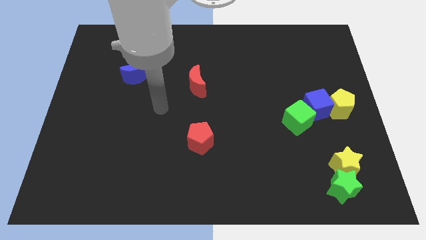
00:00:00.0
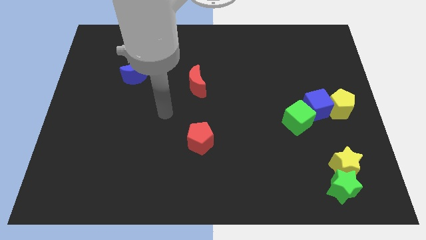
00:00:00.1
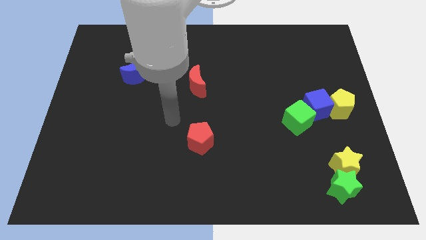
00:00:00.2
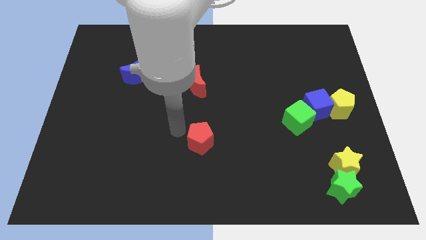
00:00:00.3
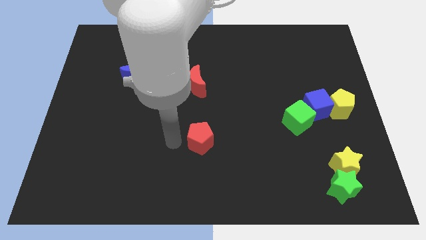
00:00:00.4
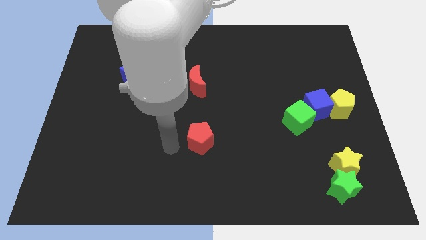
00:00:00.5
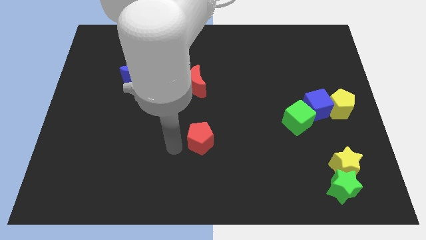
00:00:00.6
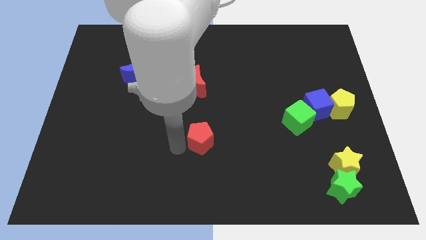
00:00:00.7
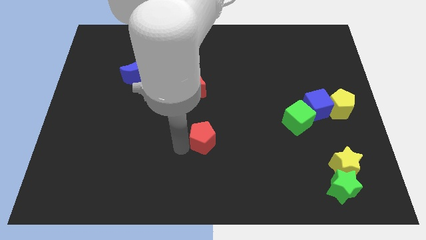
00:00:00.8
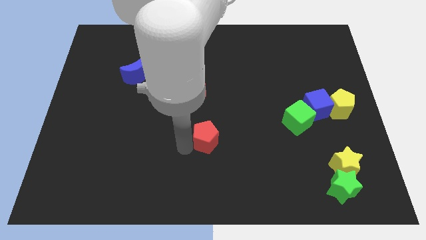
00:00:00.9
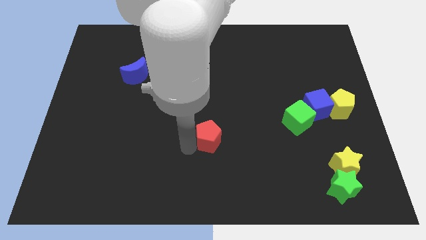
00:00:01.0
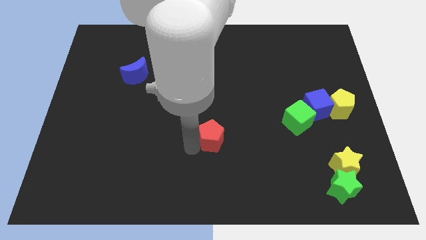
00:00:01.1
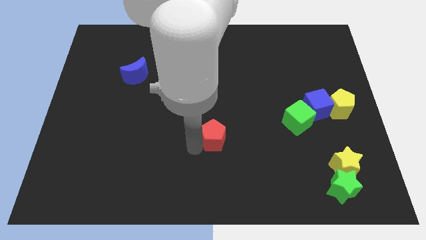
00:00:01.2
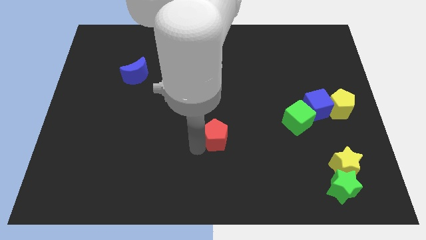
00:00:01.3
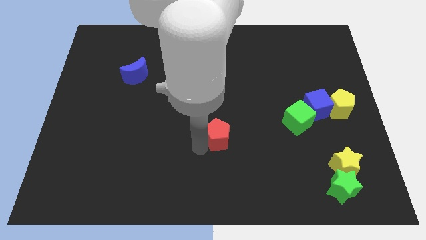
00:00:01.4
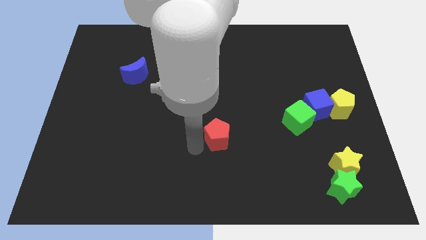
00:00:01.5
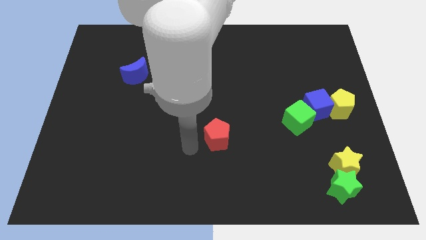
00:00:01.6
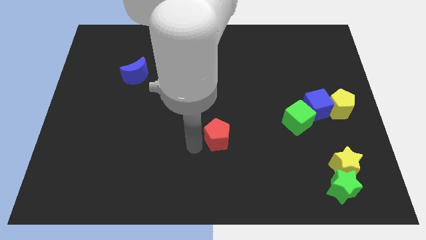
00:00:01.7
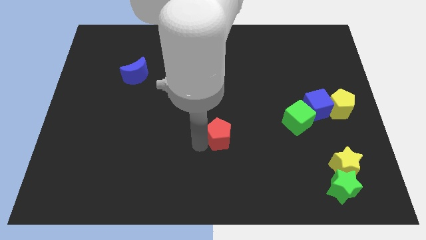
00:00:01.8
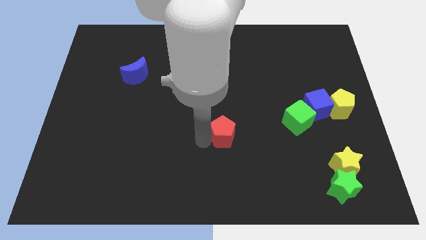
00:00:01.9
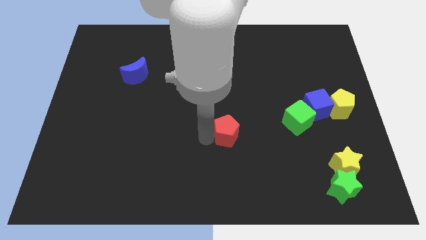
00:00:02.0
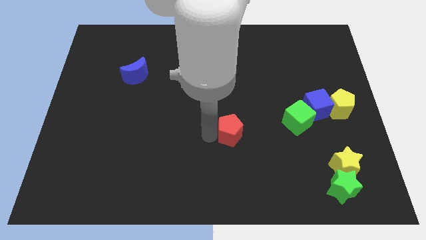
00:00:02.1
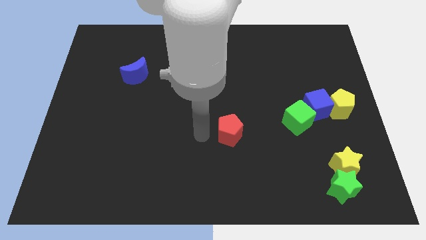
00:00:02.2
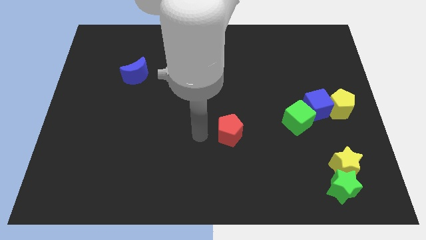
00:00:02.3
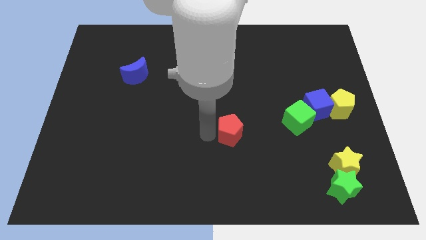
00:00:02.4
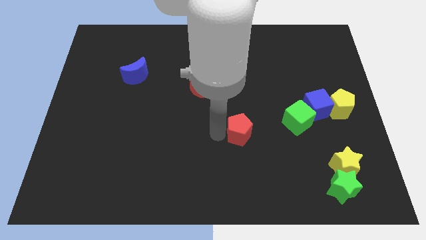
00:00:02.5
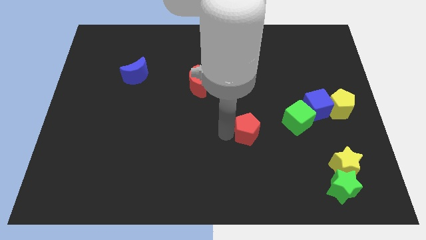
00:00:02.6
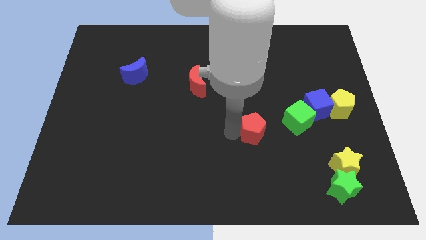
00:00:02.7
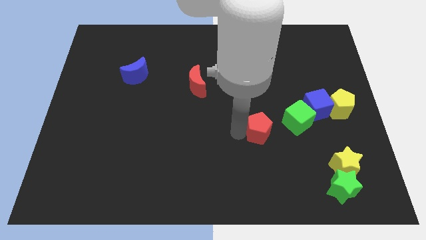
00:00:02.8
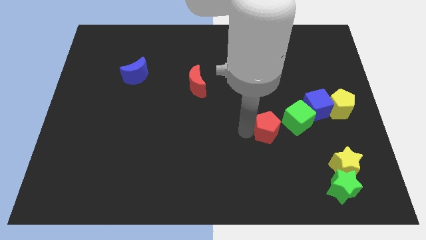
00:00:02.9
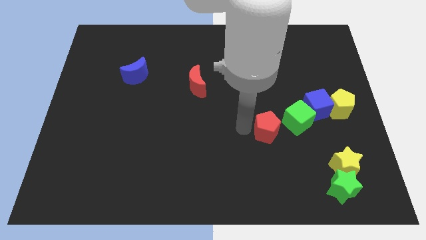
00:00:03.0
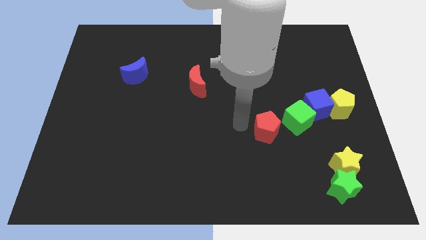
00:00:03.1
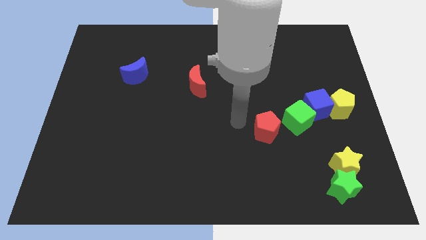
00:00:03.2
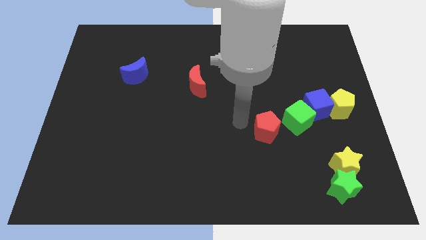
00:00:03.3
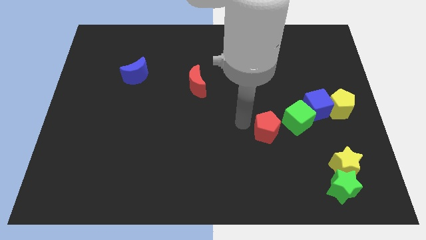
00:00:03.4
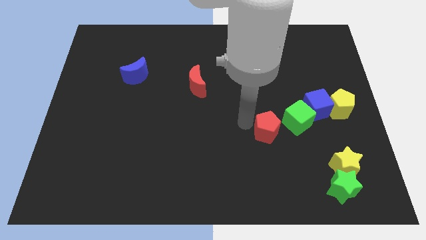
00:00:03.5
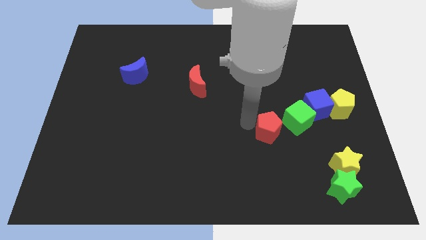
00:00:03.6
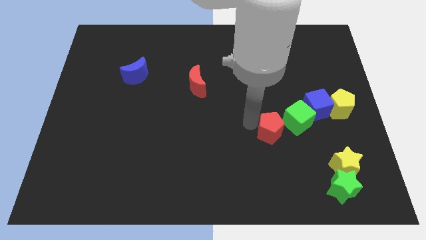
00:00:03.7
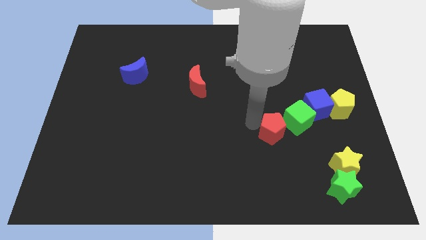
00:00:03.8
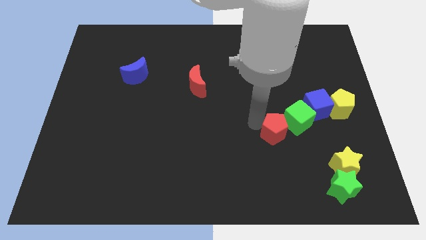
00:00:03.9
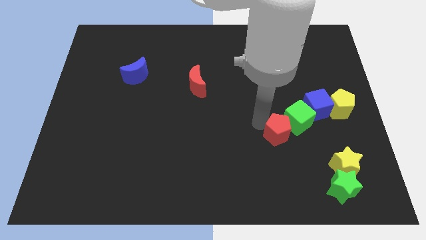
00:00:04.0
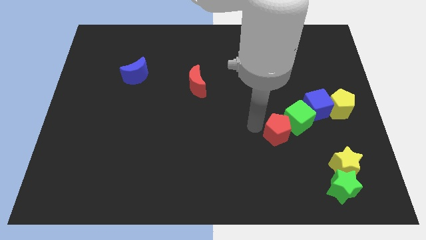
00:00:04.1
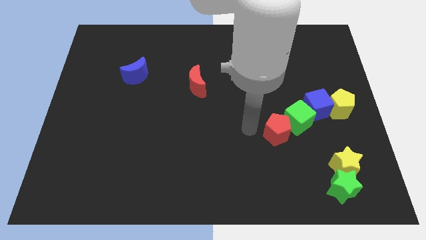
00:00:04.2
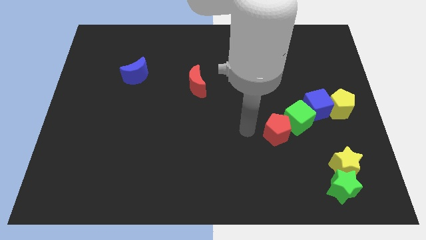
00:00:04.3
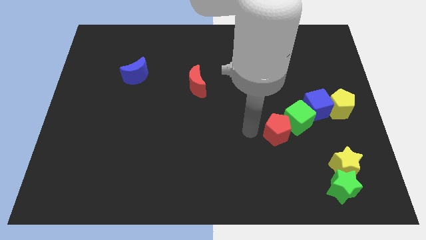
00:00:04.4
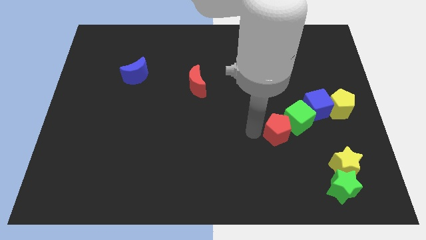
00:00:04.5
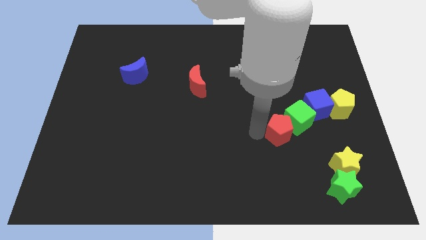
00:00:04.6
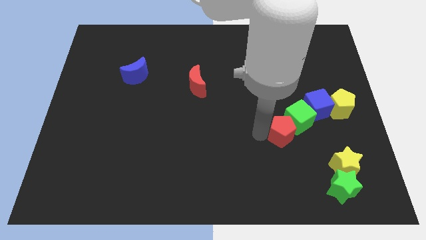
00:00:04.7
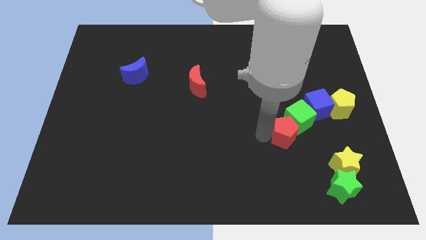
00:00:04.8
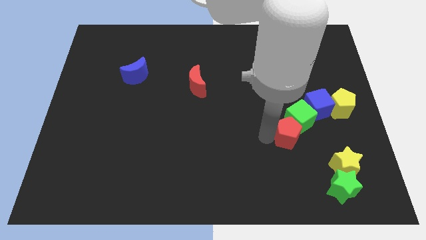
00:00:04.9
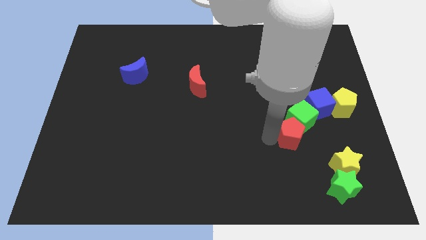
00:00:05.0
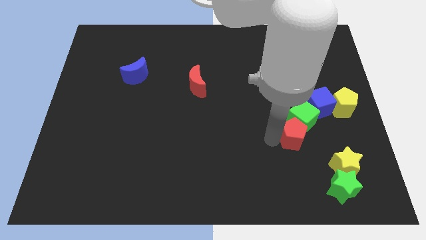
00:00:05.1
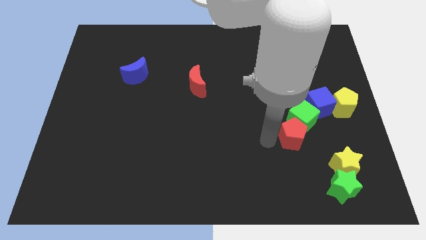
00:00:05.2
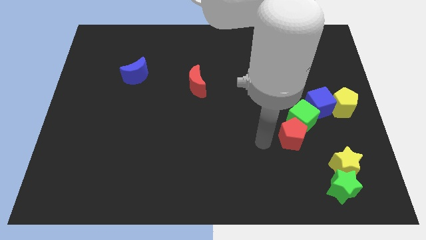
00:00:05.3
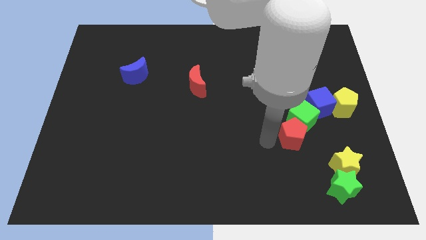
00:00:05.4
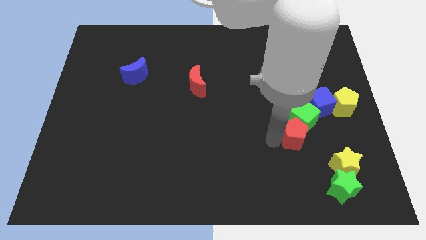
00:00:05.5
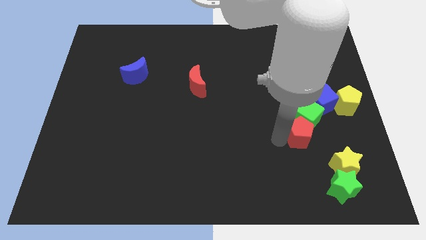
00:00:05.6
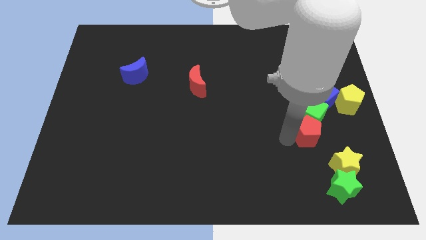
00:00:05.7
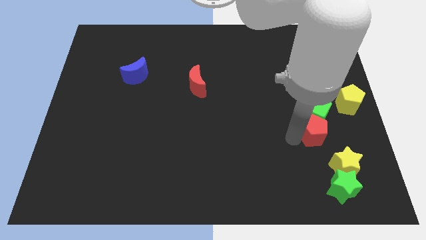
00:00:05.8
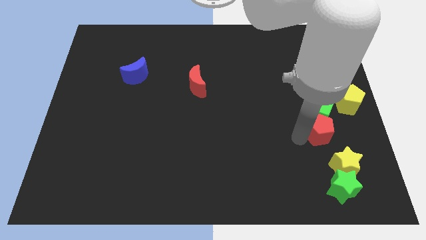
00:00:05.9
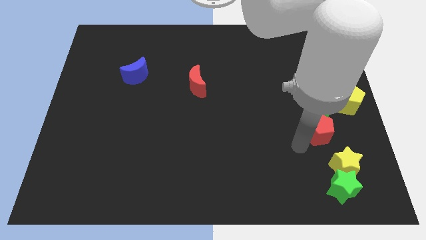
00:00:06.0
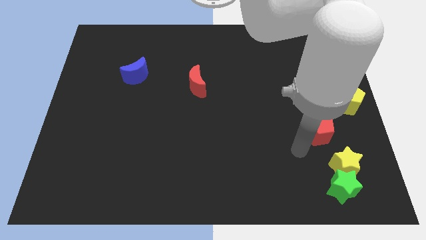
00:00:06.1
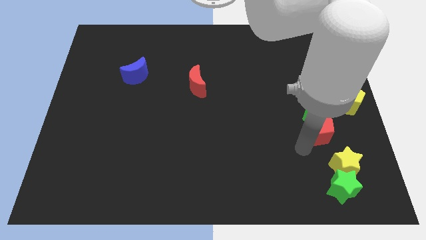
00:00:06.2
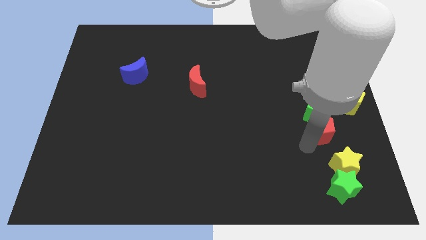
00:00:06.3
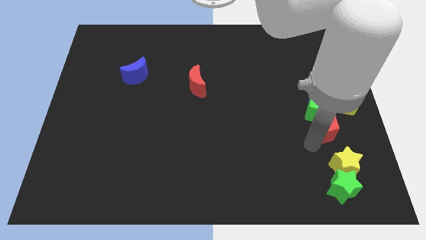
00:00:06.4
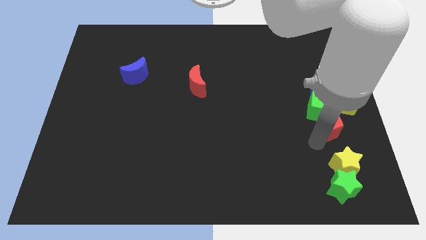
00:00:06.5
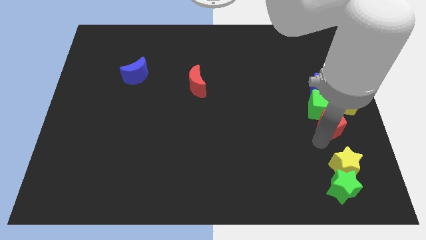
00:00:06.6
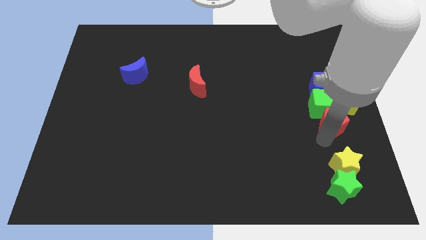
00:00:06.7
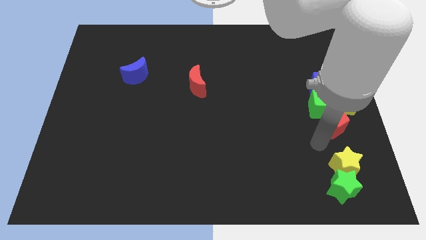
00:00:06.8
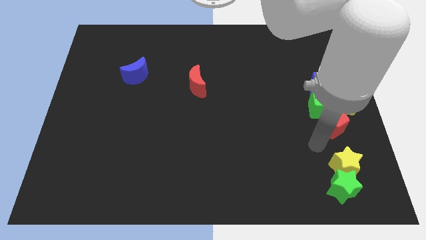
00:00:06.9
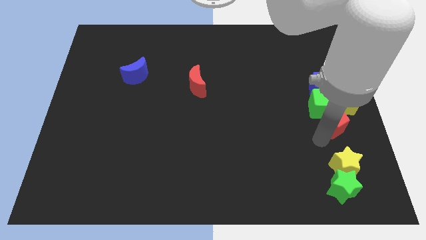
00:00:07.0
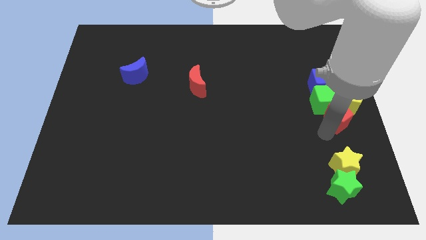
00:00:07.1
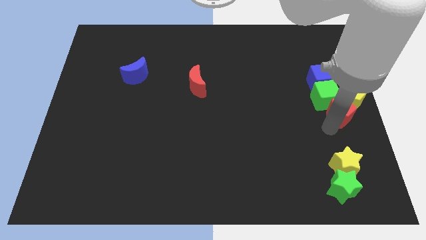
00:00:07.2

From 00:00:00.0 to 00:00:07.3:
slide the red pentagon next to the yellow pentagon
